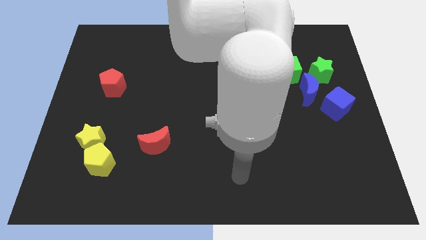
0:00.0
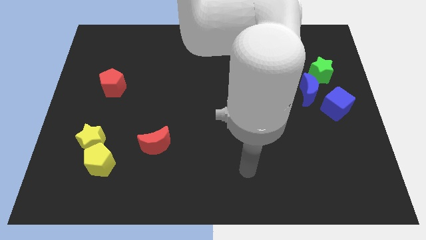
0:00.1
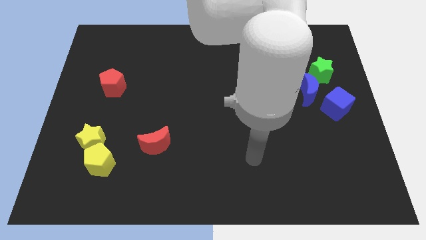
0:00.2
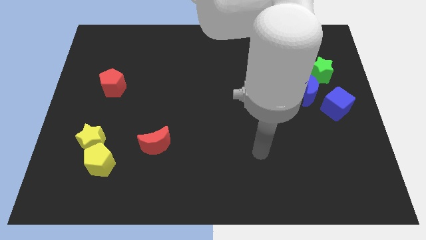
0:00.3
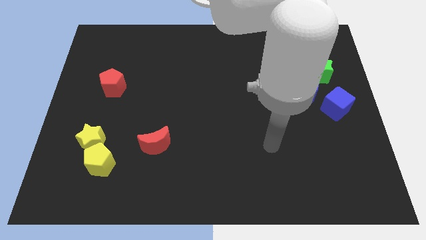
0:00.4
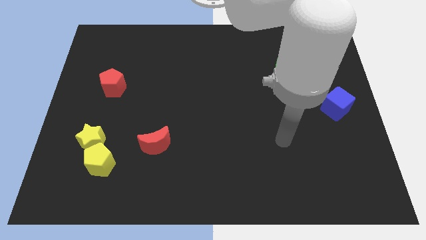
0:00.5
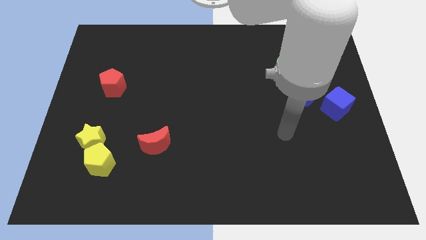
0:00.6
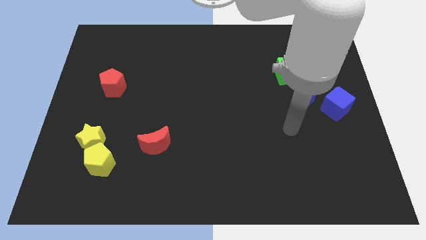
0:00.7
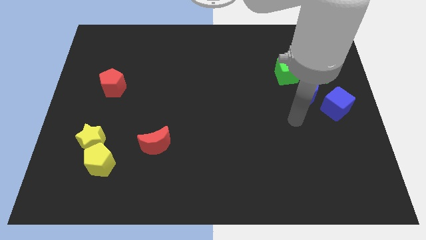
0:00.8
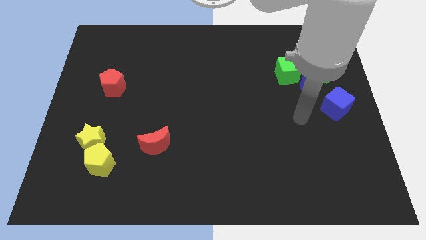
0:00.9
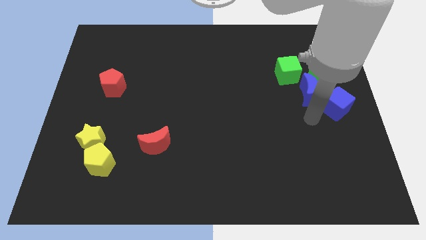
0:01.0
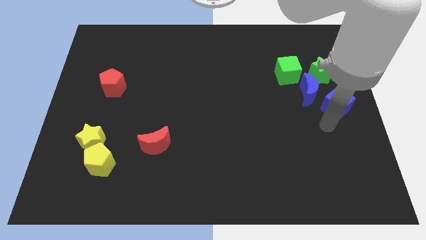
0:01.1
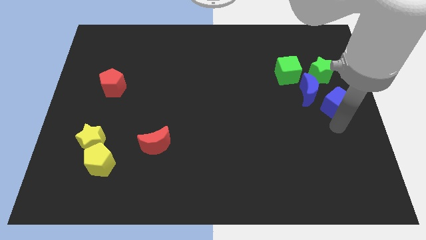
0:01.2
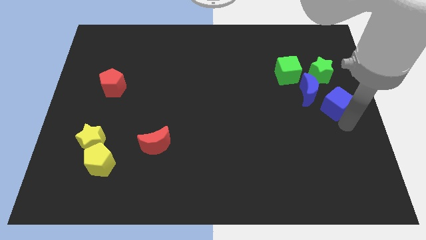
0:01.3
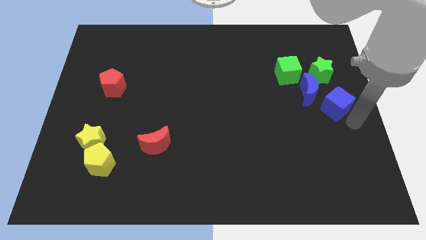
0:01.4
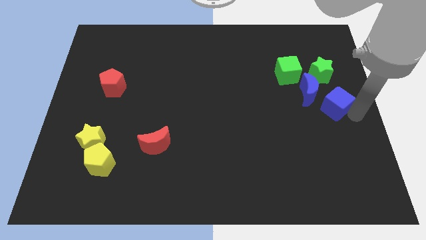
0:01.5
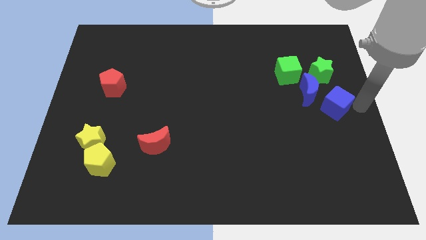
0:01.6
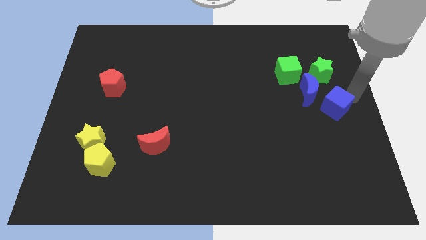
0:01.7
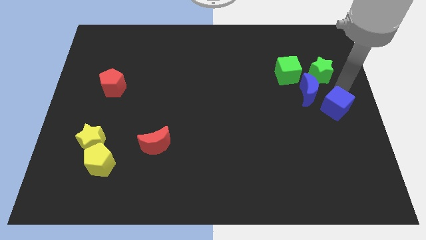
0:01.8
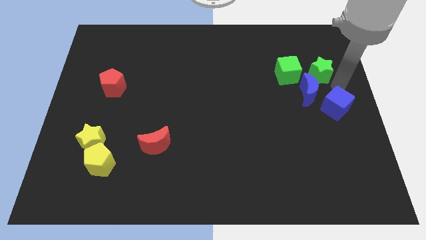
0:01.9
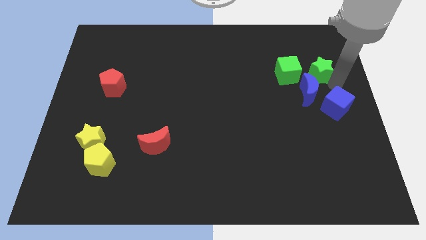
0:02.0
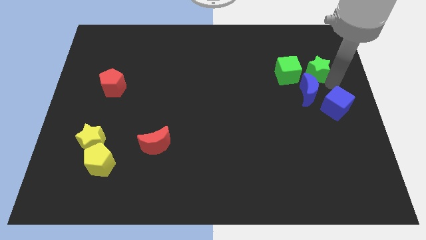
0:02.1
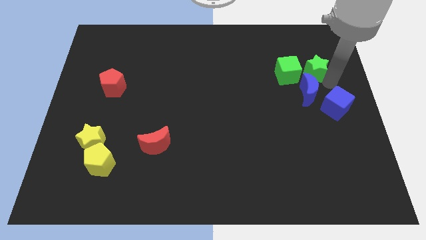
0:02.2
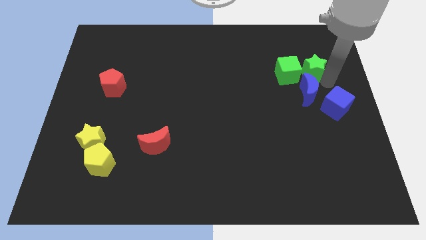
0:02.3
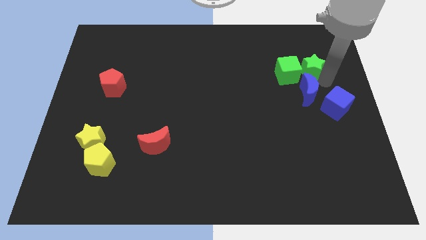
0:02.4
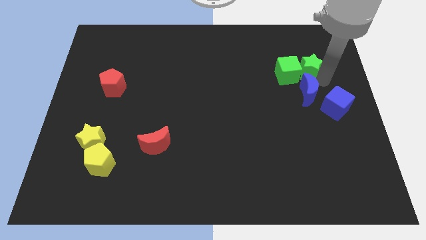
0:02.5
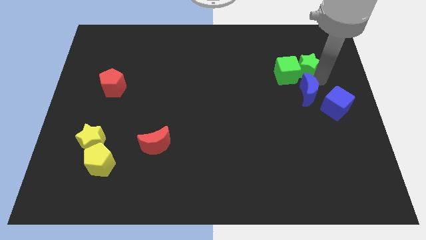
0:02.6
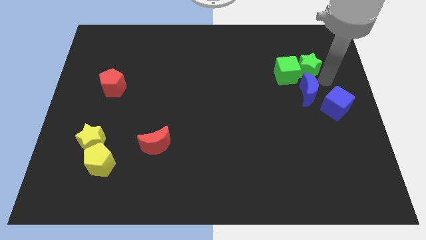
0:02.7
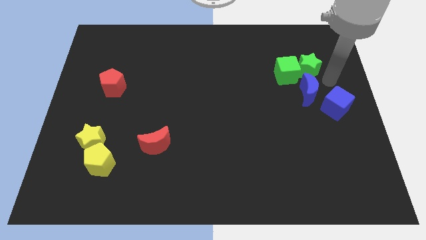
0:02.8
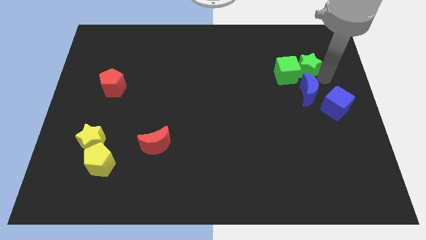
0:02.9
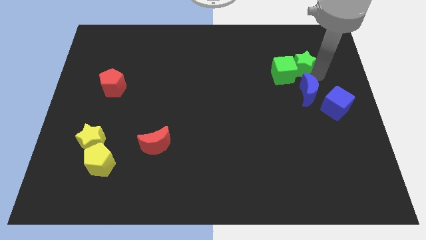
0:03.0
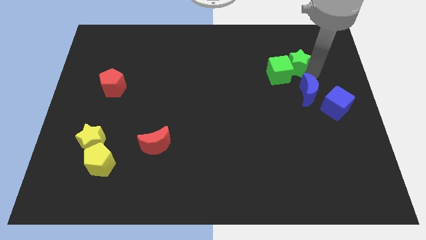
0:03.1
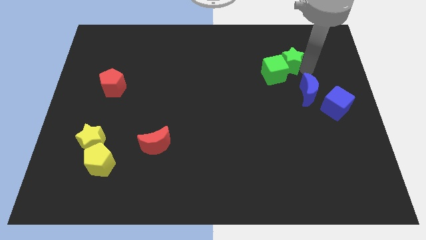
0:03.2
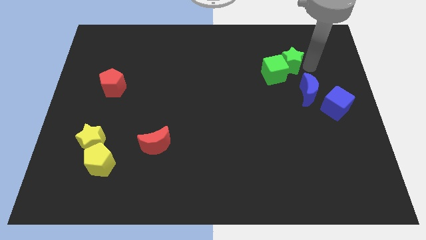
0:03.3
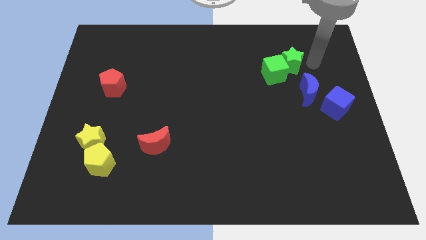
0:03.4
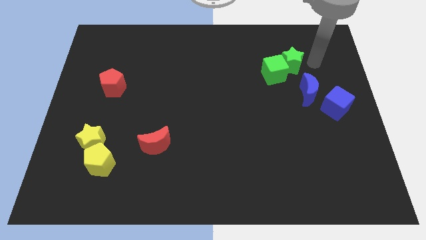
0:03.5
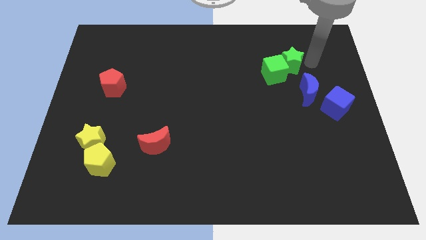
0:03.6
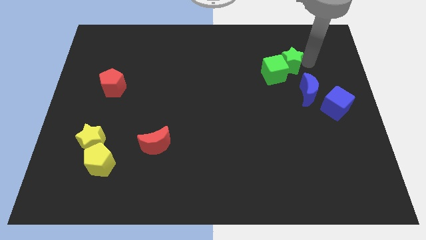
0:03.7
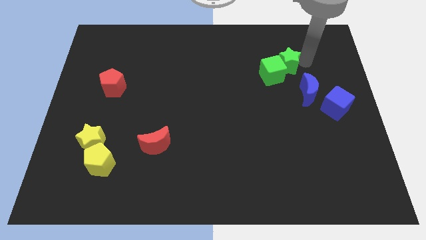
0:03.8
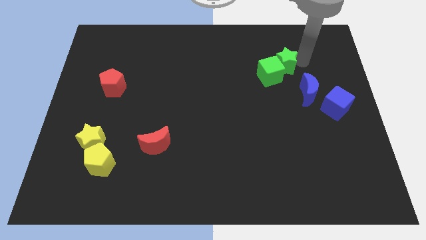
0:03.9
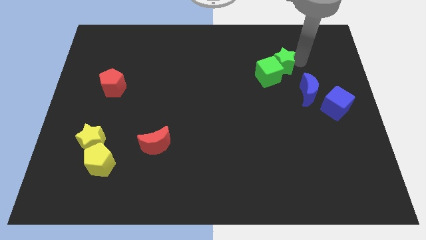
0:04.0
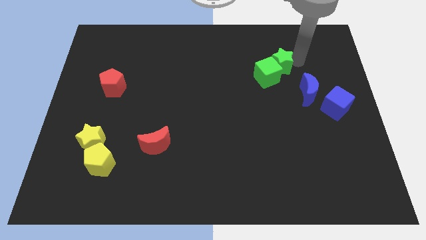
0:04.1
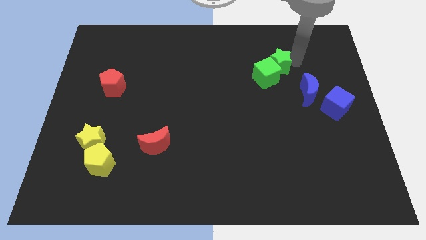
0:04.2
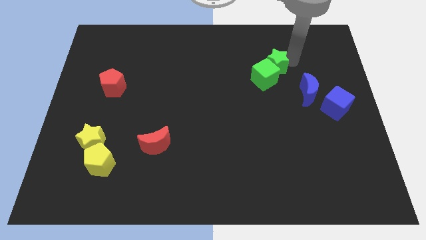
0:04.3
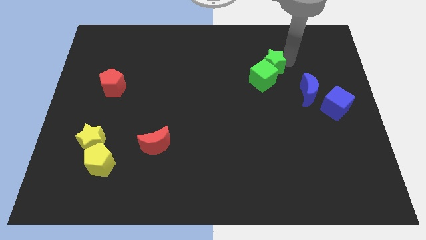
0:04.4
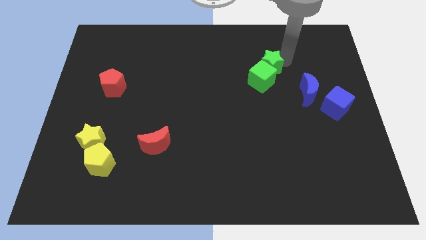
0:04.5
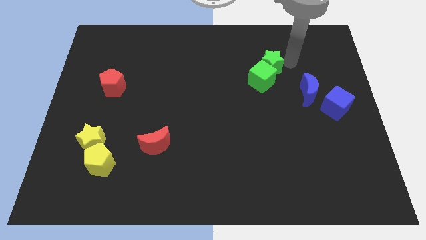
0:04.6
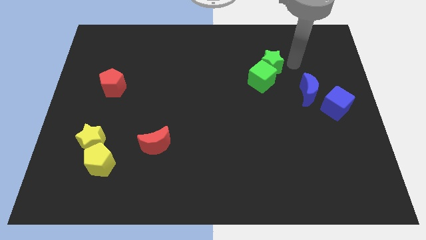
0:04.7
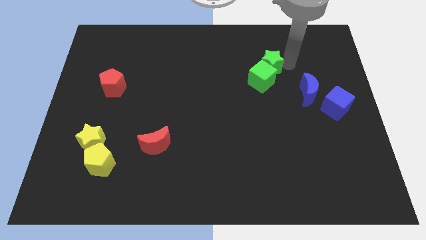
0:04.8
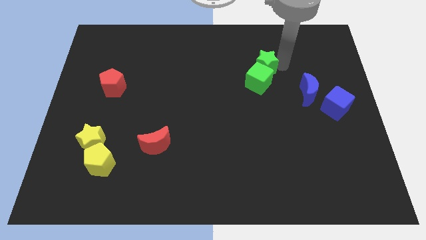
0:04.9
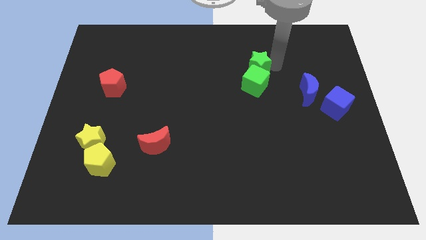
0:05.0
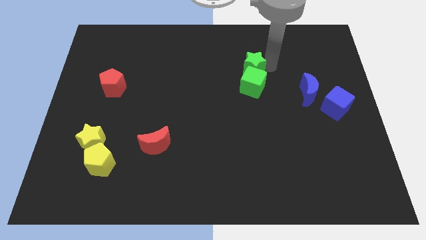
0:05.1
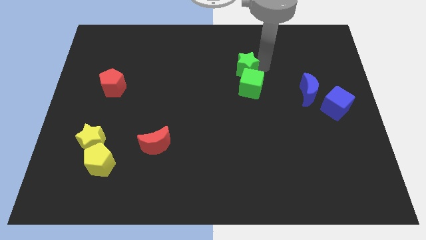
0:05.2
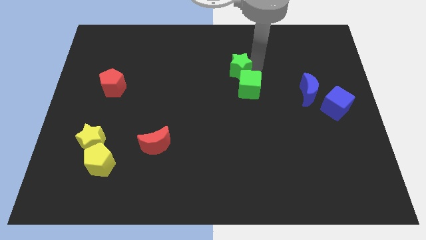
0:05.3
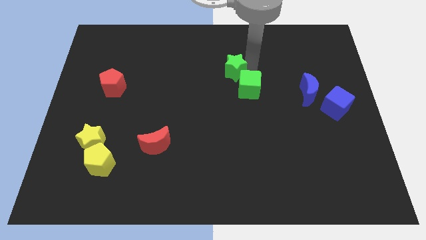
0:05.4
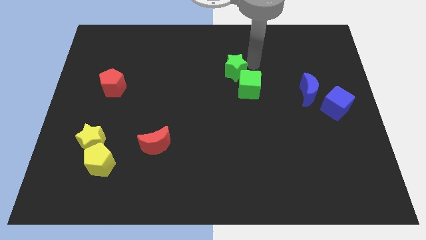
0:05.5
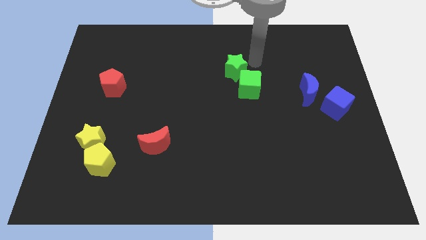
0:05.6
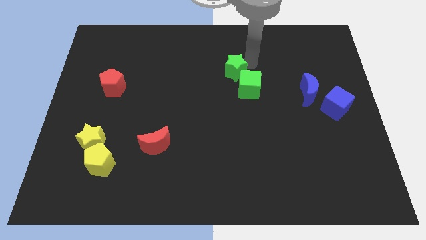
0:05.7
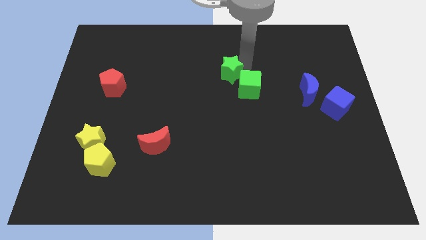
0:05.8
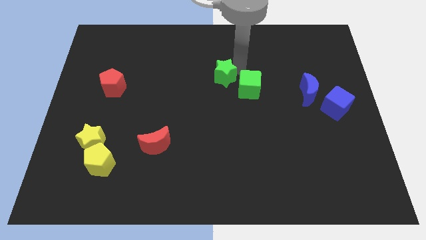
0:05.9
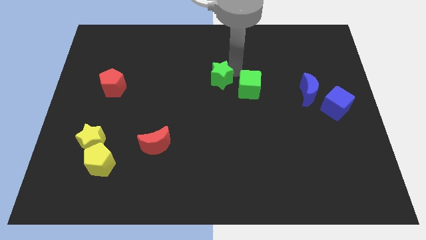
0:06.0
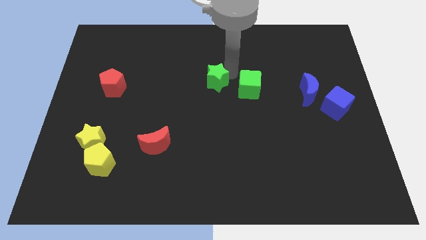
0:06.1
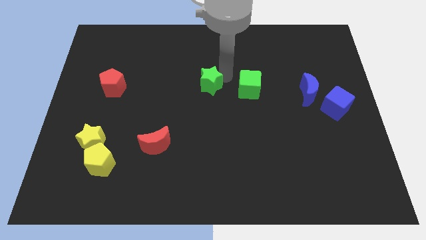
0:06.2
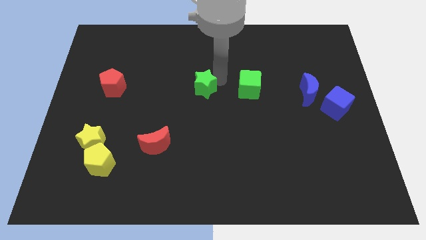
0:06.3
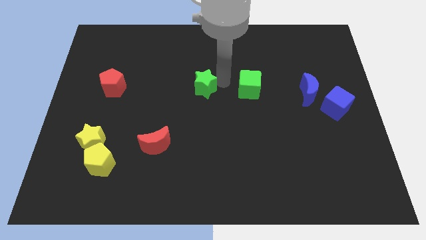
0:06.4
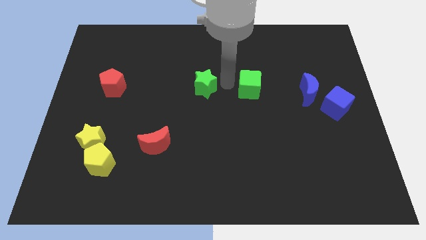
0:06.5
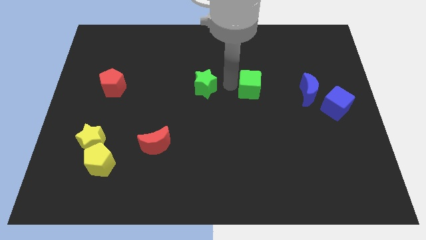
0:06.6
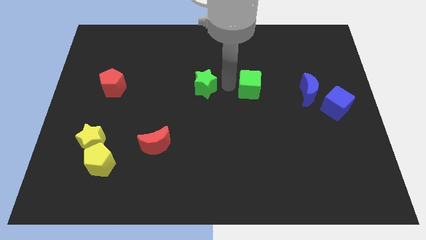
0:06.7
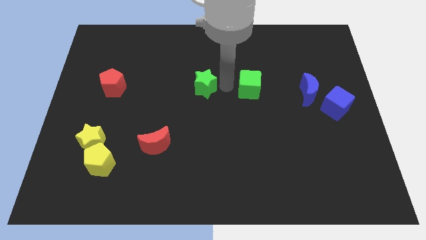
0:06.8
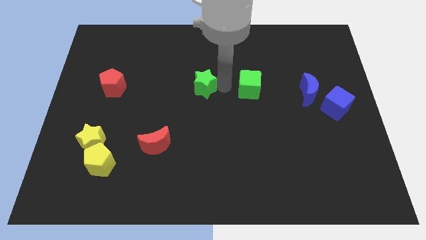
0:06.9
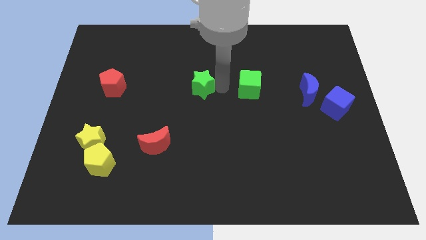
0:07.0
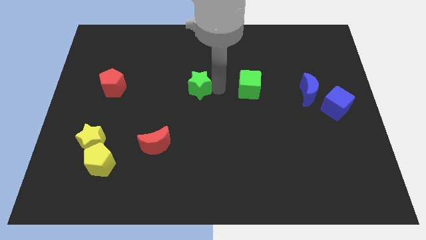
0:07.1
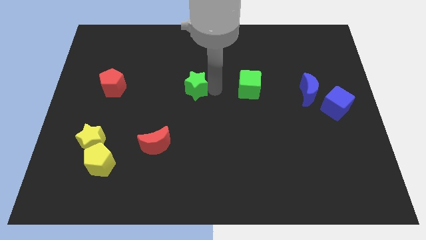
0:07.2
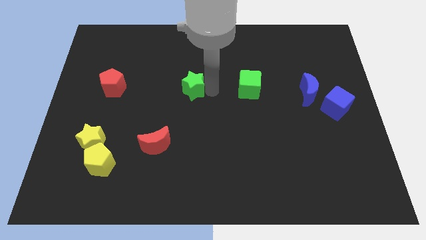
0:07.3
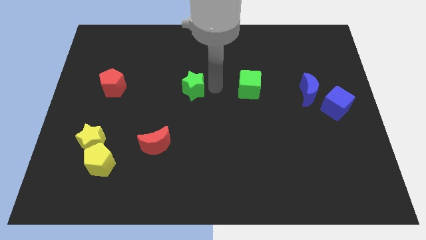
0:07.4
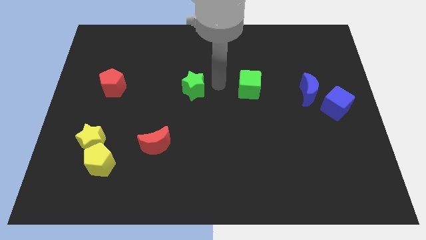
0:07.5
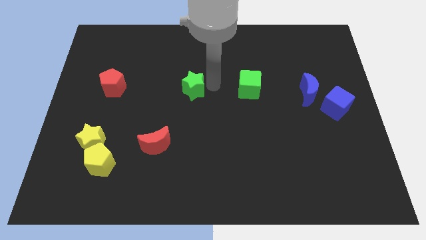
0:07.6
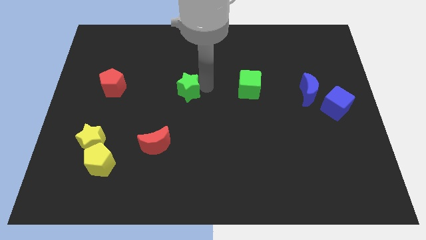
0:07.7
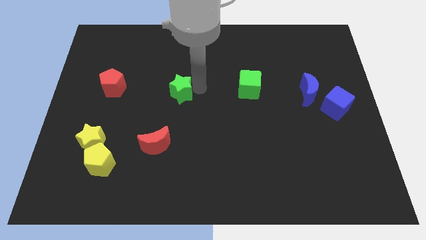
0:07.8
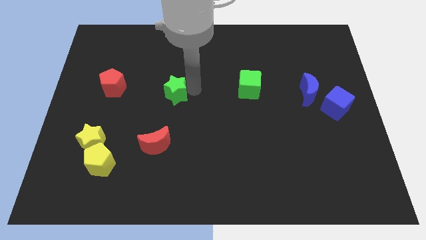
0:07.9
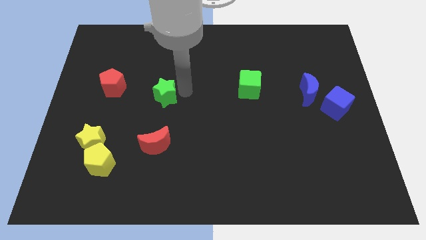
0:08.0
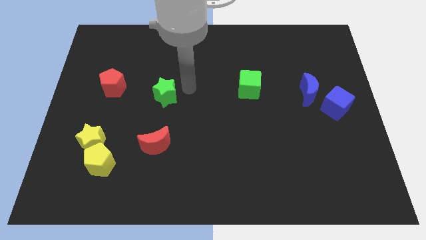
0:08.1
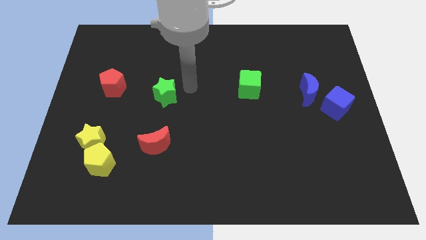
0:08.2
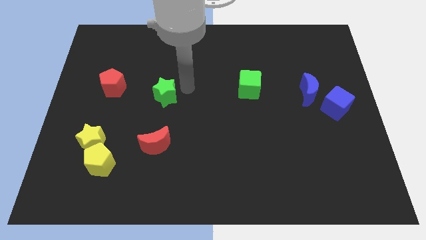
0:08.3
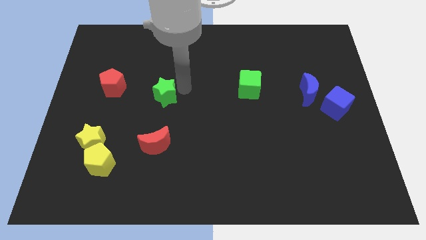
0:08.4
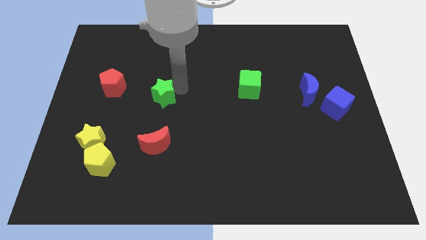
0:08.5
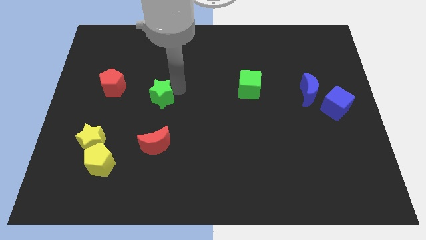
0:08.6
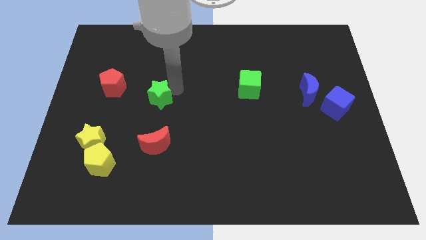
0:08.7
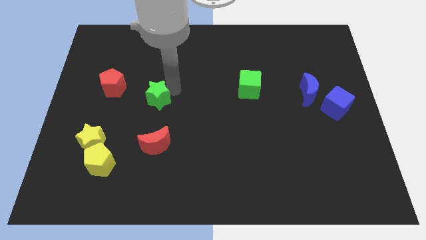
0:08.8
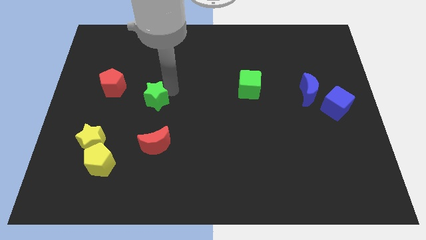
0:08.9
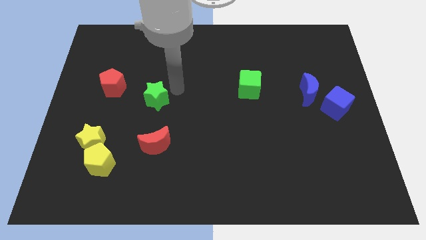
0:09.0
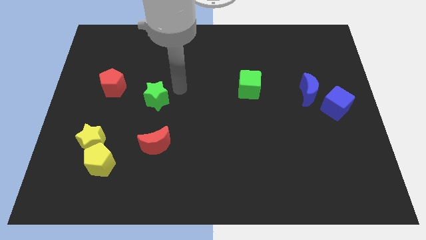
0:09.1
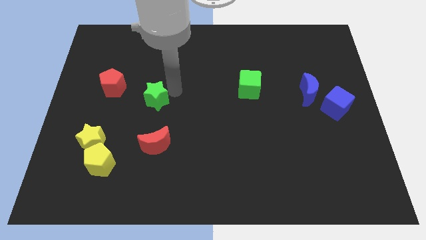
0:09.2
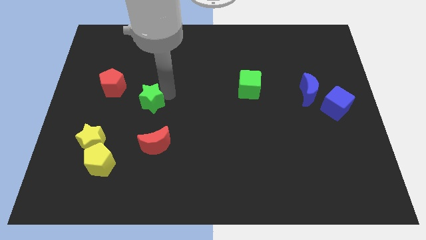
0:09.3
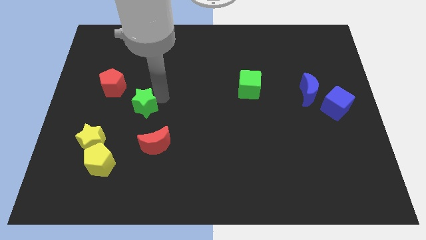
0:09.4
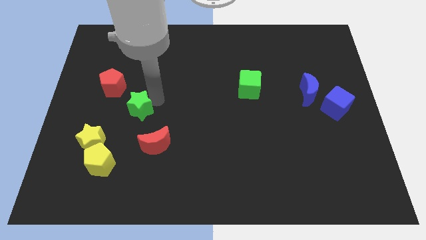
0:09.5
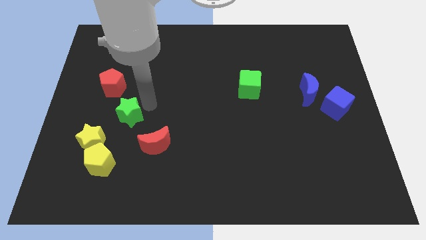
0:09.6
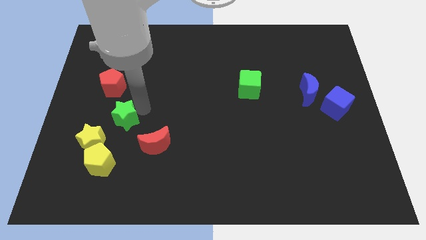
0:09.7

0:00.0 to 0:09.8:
slide the green star below the red pentagon
